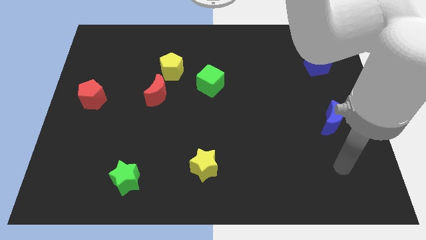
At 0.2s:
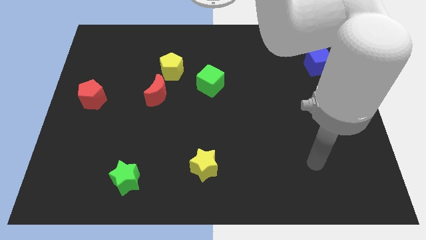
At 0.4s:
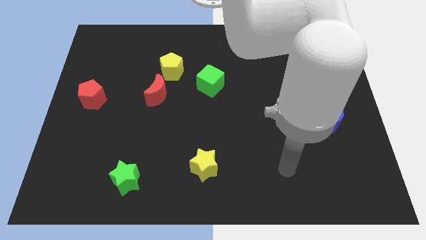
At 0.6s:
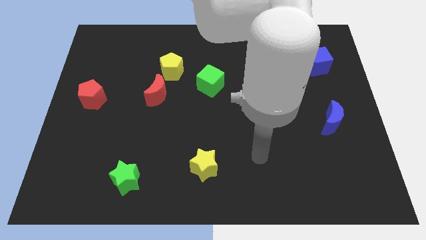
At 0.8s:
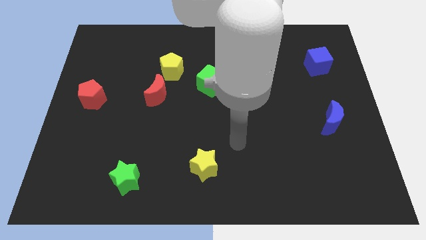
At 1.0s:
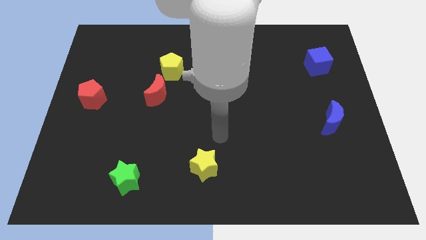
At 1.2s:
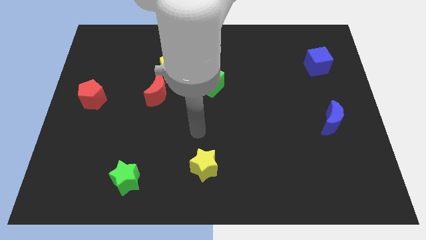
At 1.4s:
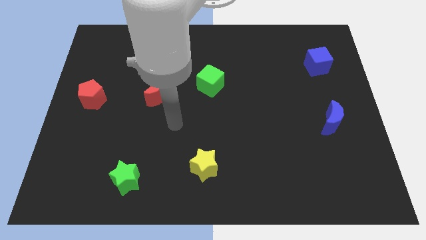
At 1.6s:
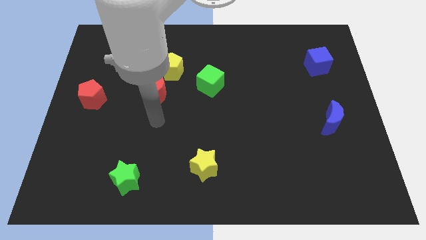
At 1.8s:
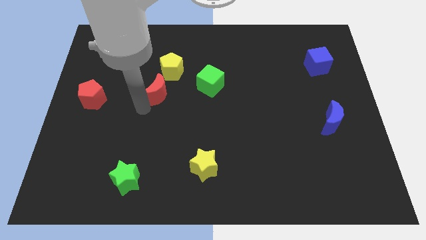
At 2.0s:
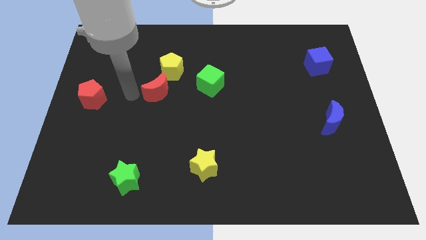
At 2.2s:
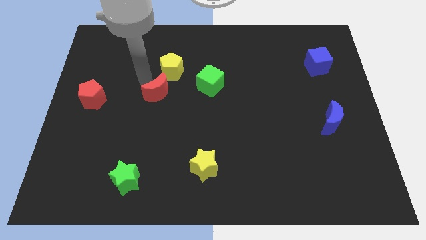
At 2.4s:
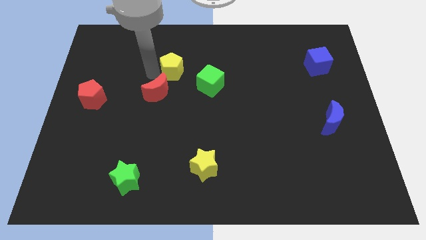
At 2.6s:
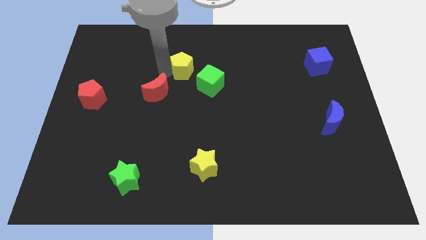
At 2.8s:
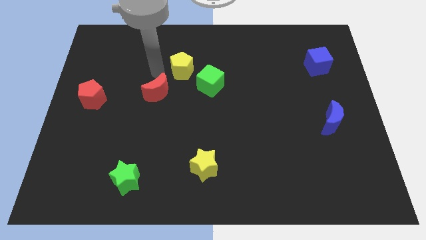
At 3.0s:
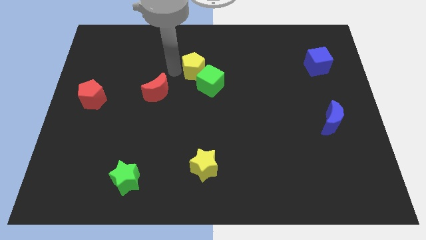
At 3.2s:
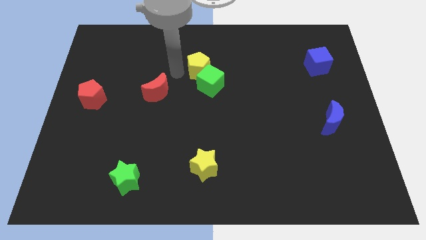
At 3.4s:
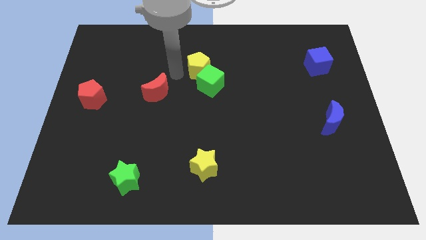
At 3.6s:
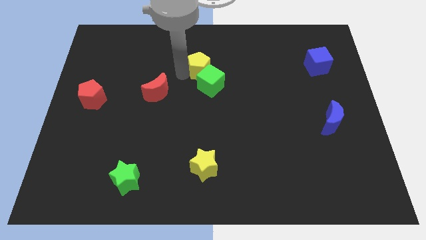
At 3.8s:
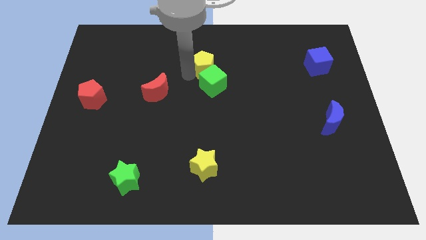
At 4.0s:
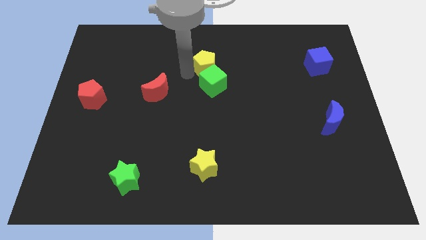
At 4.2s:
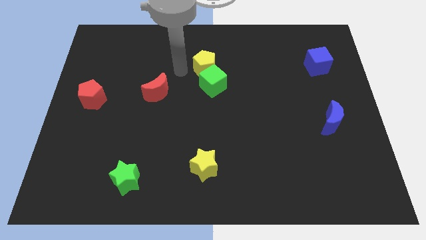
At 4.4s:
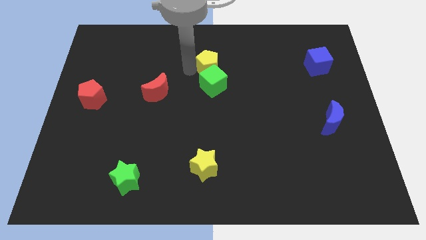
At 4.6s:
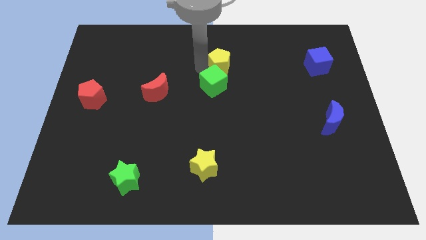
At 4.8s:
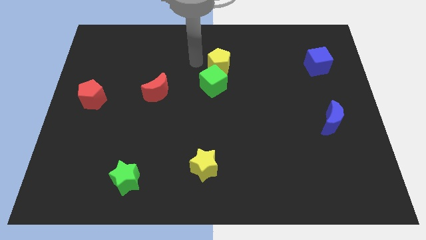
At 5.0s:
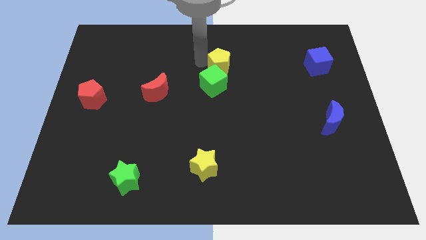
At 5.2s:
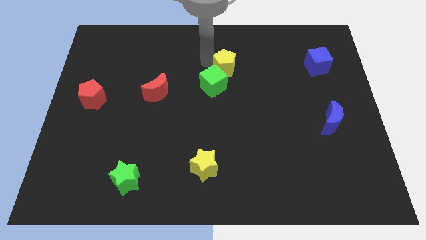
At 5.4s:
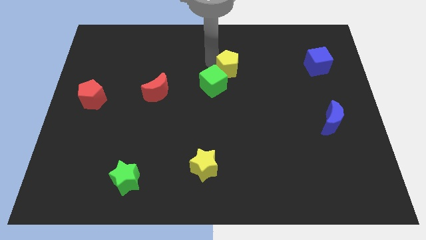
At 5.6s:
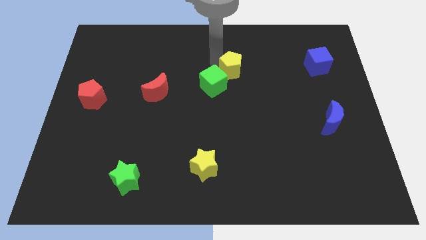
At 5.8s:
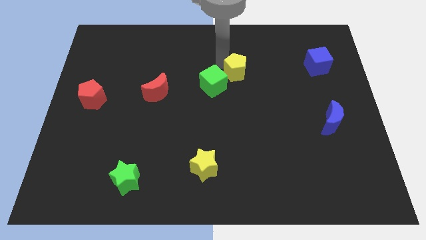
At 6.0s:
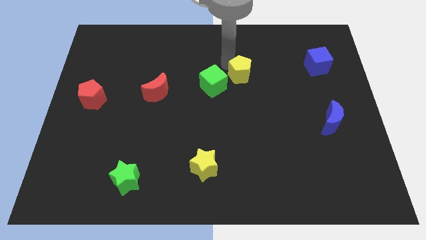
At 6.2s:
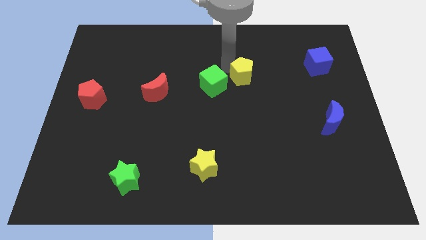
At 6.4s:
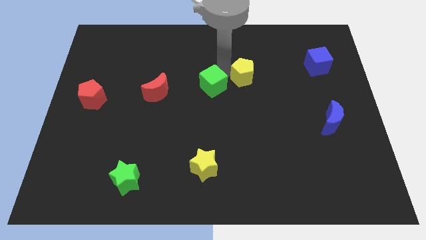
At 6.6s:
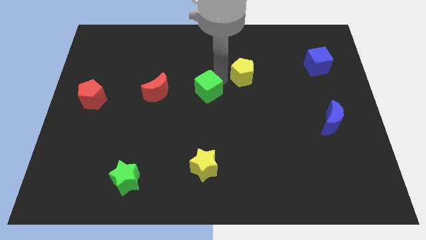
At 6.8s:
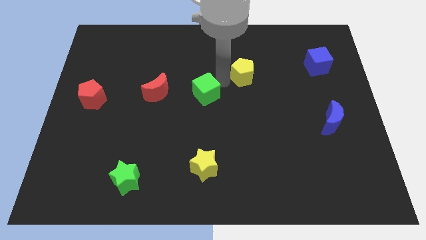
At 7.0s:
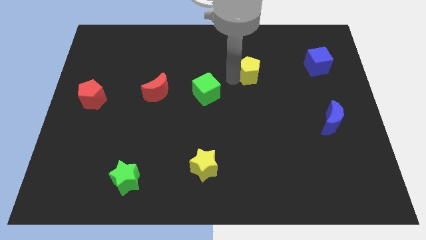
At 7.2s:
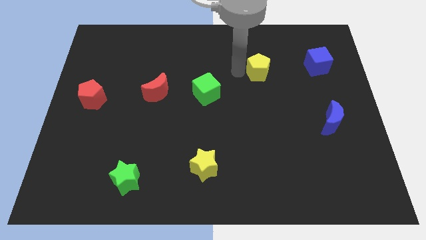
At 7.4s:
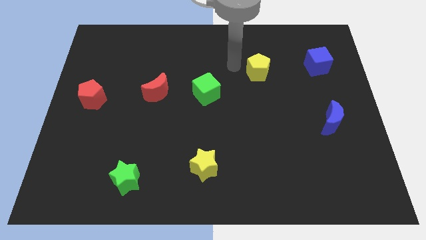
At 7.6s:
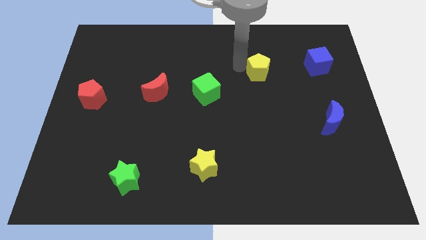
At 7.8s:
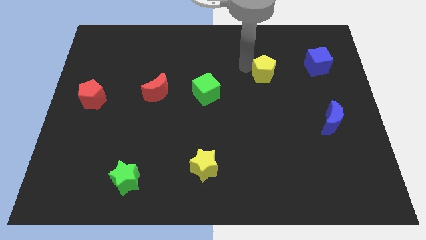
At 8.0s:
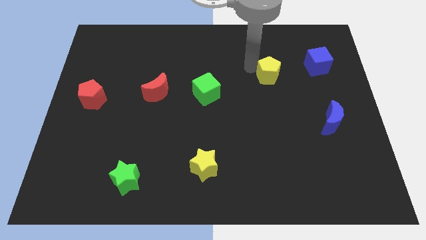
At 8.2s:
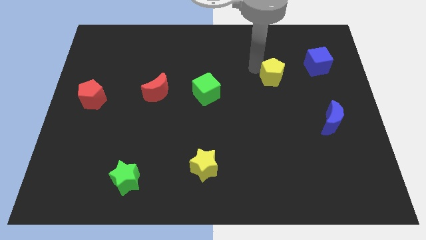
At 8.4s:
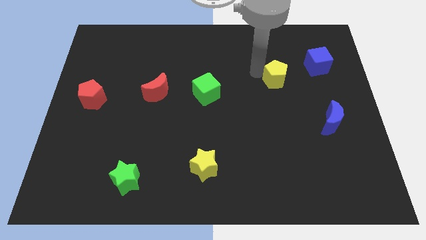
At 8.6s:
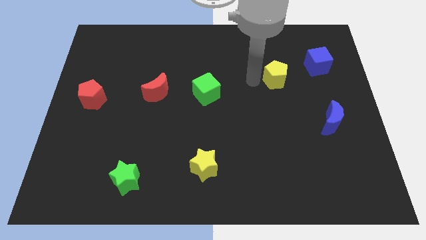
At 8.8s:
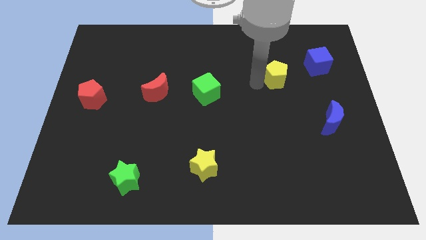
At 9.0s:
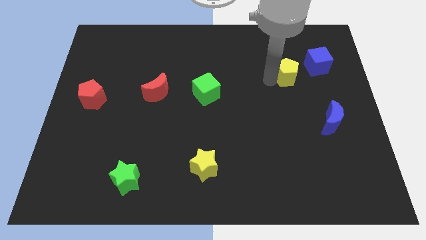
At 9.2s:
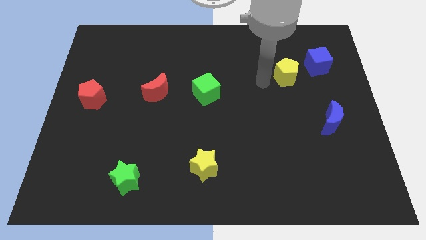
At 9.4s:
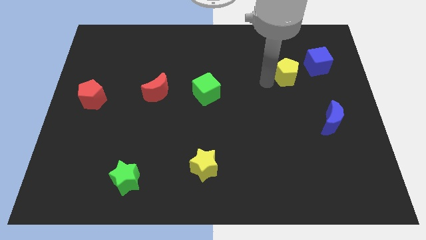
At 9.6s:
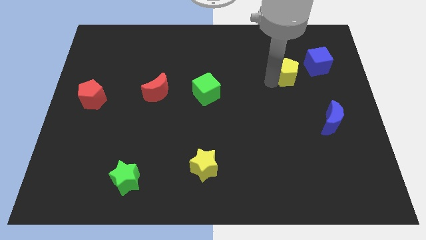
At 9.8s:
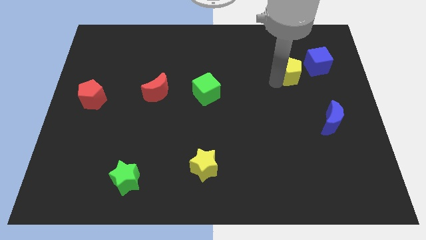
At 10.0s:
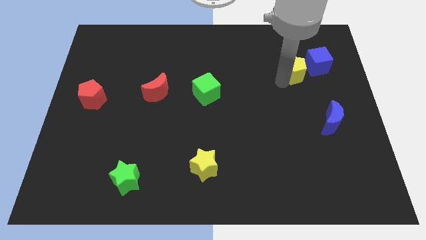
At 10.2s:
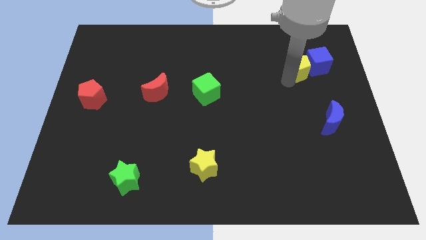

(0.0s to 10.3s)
slide the yellow pentagon close to the blue cube

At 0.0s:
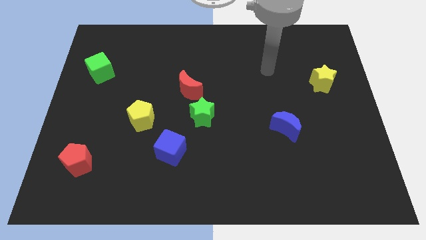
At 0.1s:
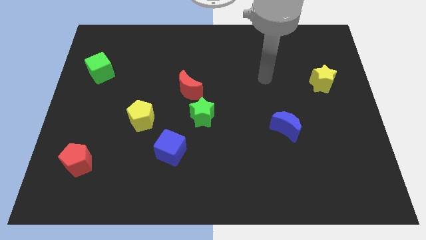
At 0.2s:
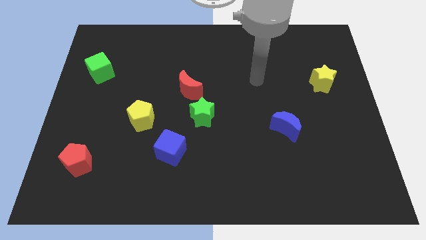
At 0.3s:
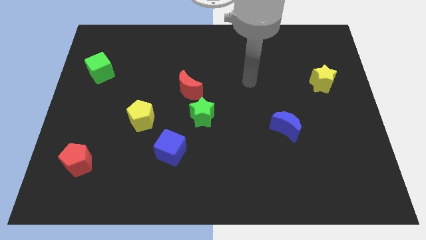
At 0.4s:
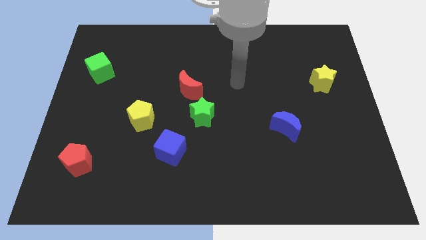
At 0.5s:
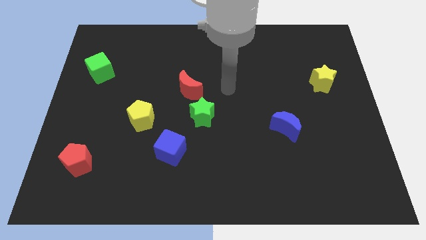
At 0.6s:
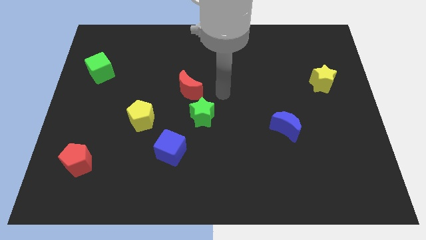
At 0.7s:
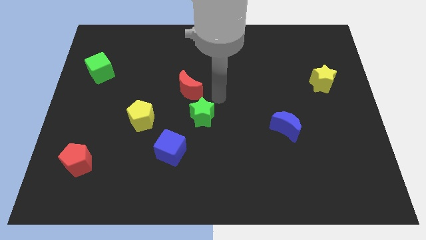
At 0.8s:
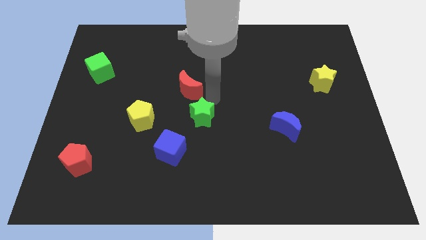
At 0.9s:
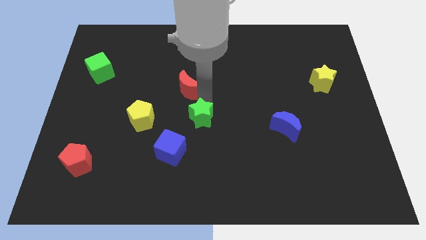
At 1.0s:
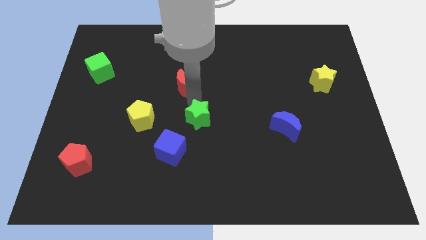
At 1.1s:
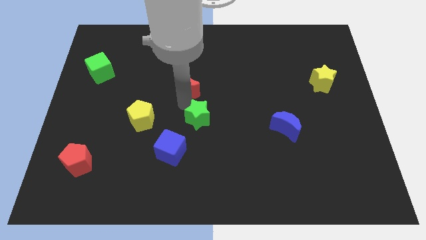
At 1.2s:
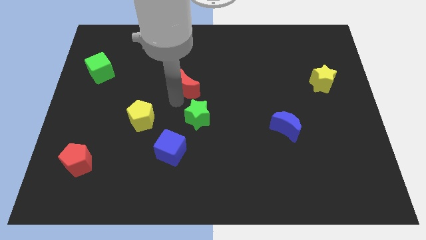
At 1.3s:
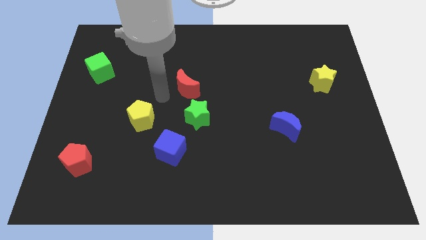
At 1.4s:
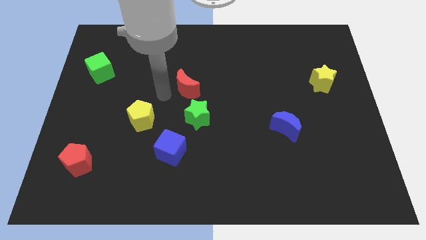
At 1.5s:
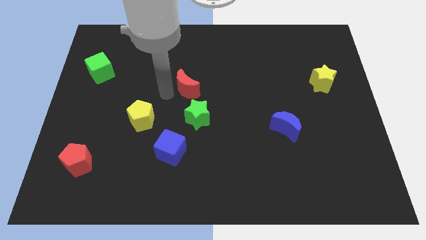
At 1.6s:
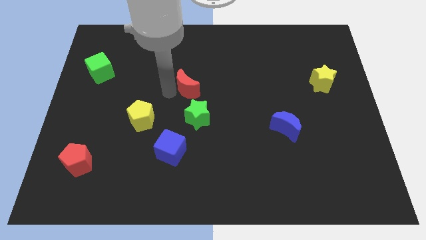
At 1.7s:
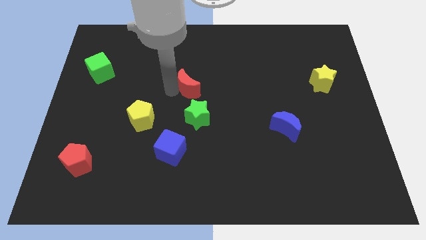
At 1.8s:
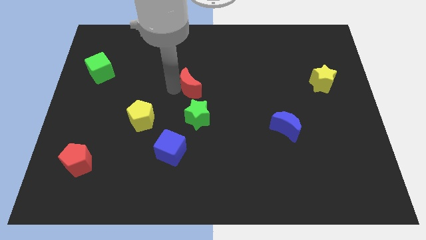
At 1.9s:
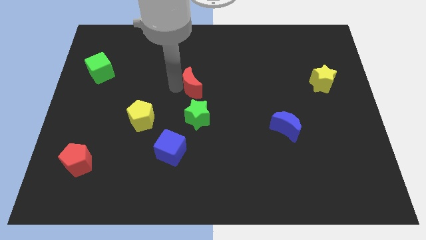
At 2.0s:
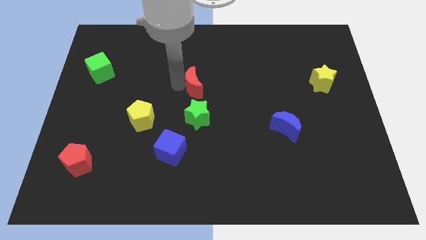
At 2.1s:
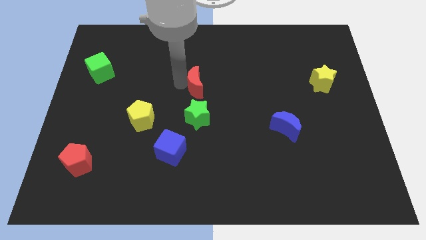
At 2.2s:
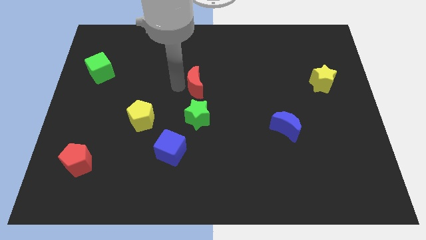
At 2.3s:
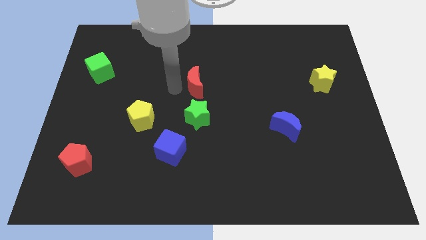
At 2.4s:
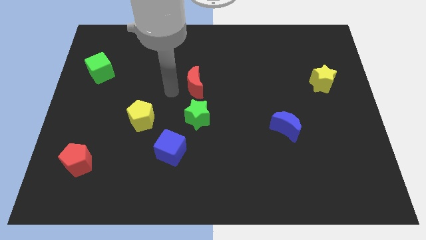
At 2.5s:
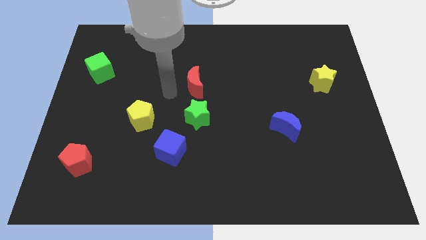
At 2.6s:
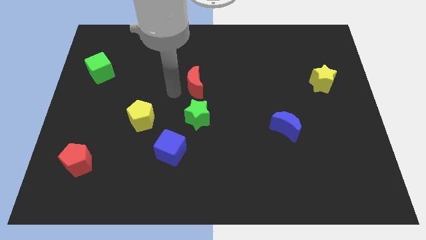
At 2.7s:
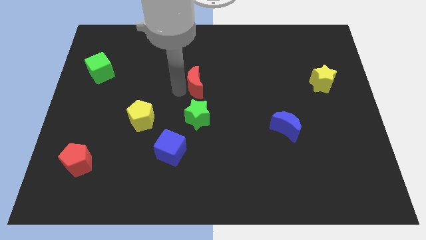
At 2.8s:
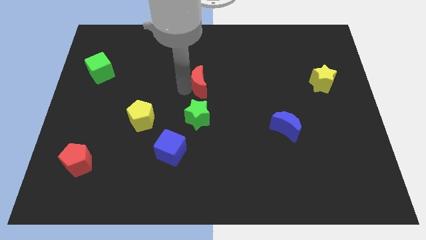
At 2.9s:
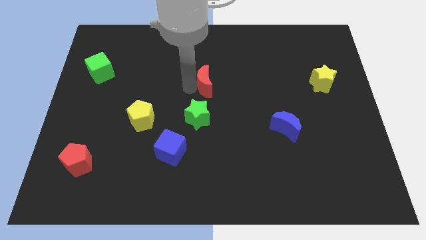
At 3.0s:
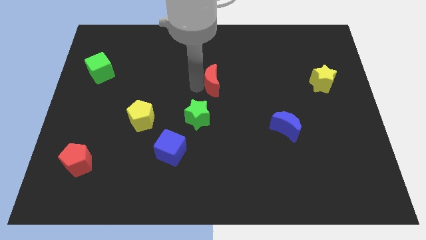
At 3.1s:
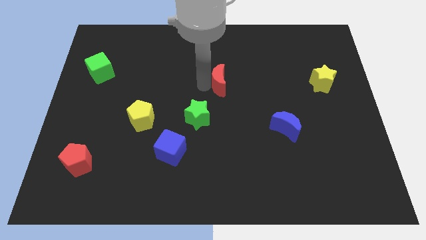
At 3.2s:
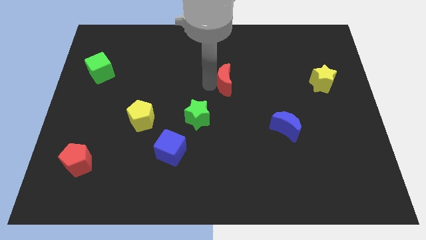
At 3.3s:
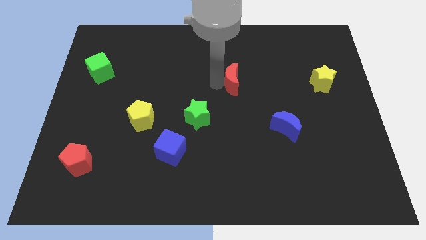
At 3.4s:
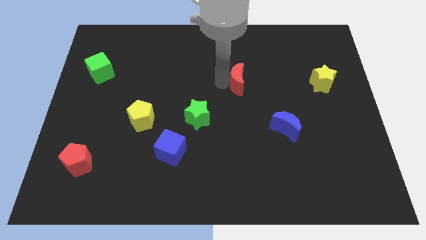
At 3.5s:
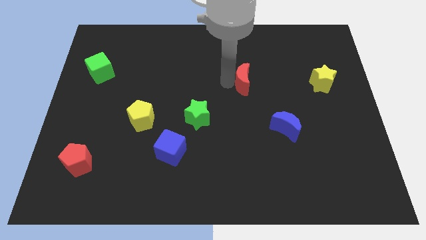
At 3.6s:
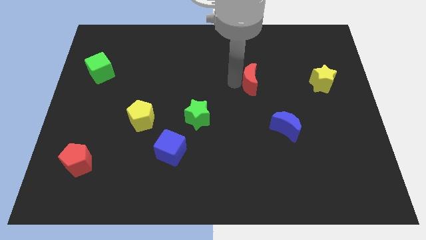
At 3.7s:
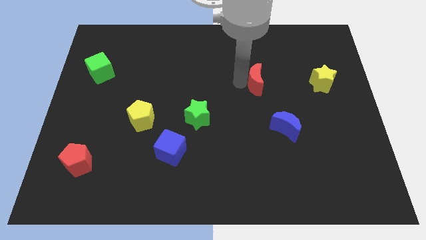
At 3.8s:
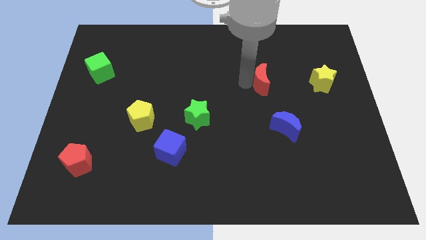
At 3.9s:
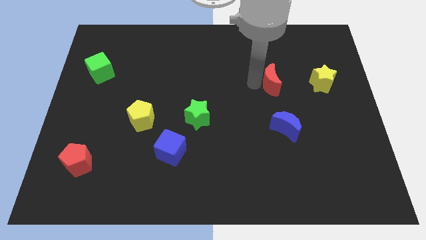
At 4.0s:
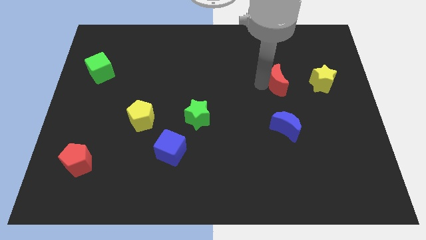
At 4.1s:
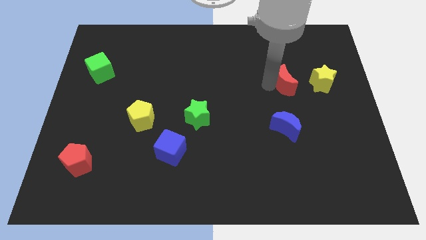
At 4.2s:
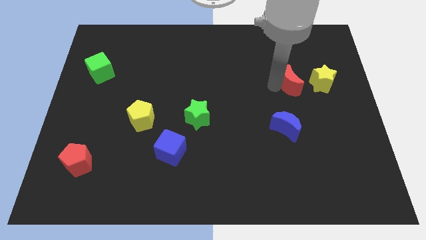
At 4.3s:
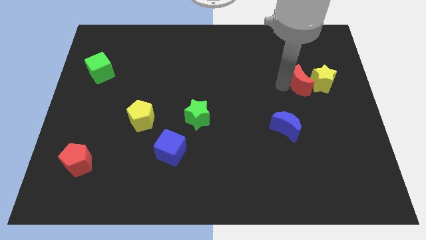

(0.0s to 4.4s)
push the red moon towards the yellow star
